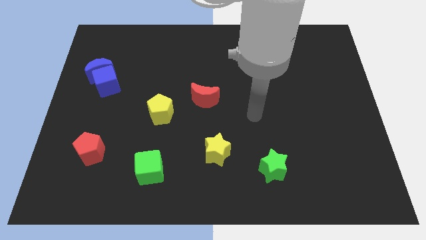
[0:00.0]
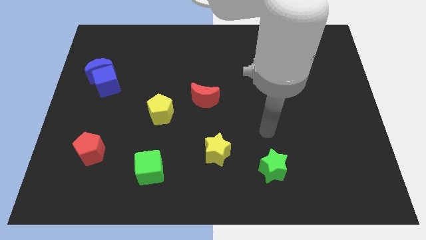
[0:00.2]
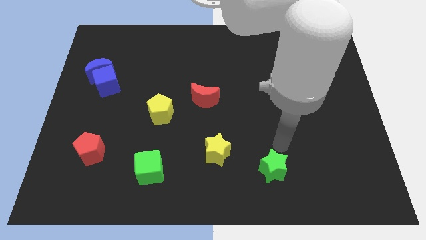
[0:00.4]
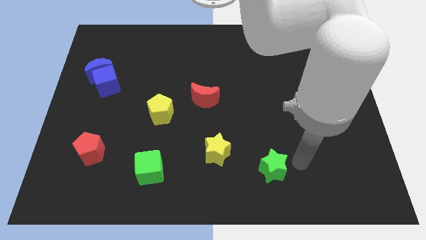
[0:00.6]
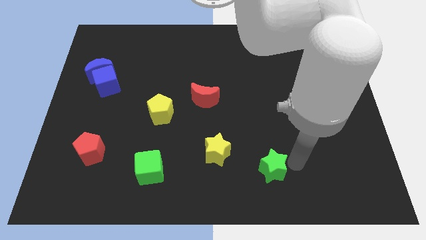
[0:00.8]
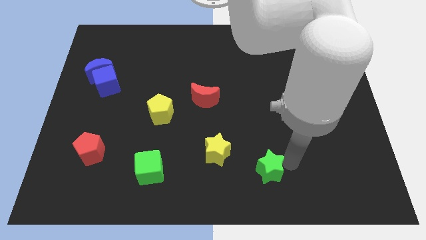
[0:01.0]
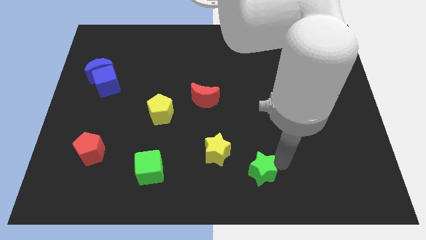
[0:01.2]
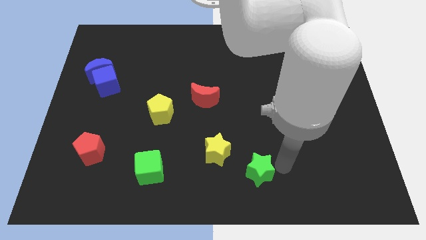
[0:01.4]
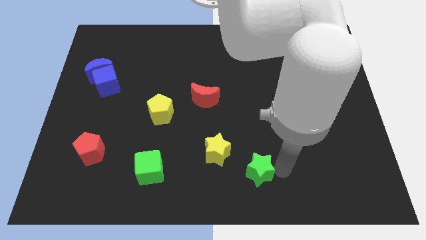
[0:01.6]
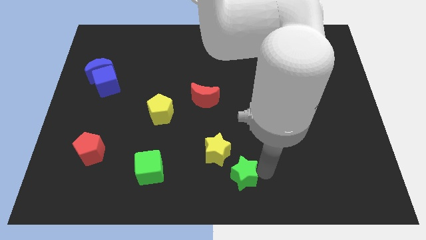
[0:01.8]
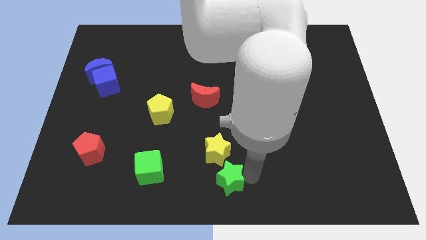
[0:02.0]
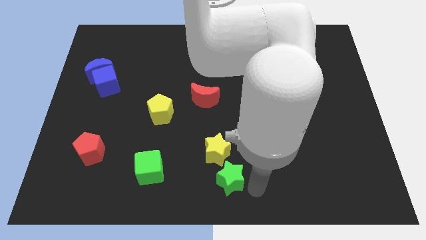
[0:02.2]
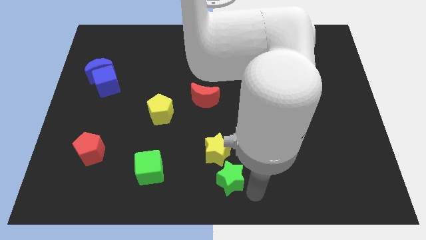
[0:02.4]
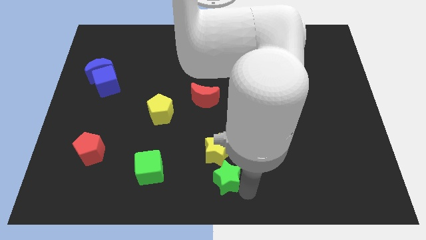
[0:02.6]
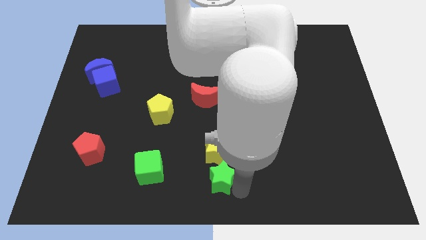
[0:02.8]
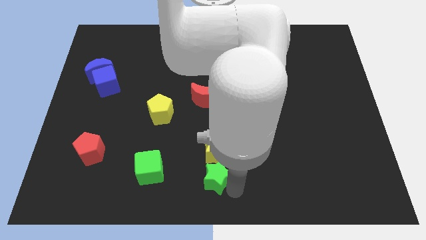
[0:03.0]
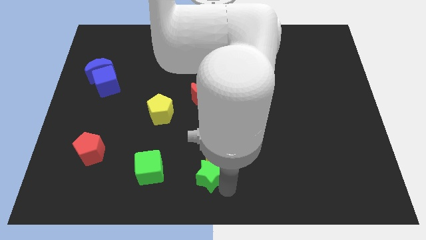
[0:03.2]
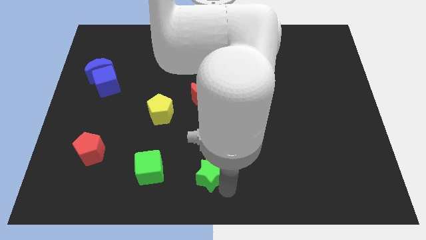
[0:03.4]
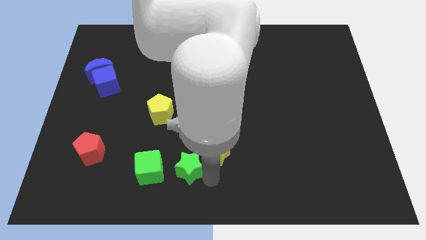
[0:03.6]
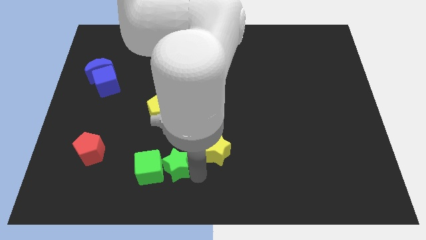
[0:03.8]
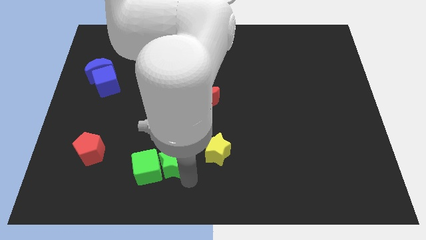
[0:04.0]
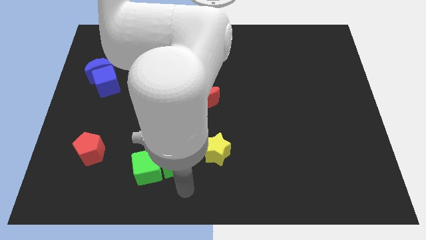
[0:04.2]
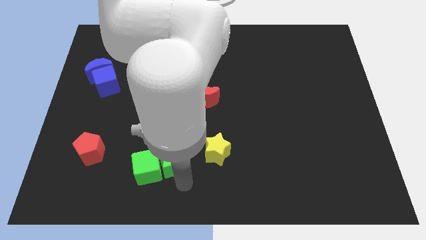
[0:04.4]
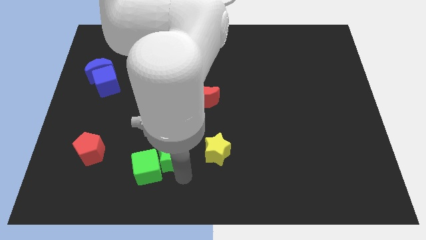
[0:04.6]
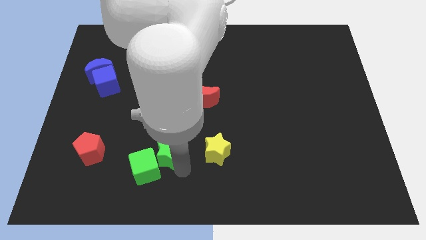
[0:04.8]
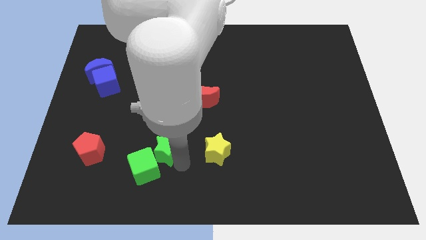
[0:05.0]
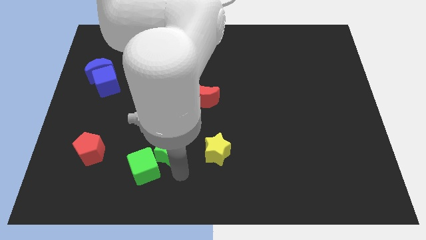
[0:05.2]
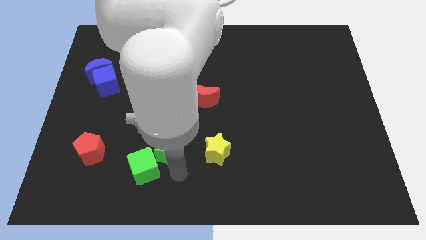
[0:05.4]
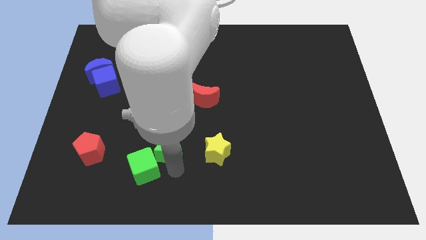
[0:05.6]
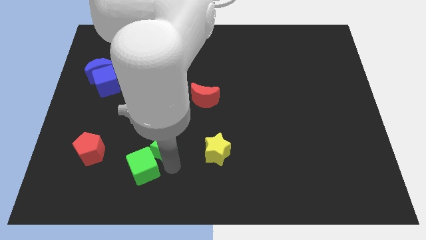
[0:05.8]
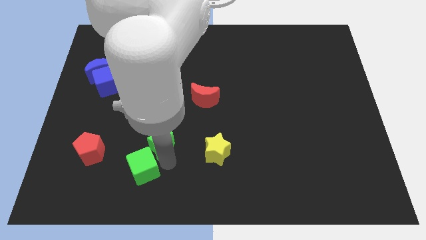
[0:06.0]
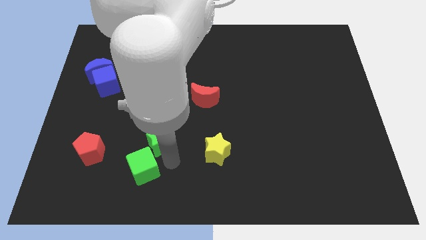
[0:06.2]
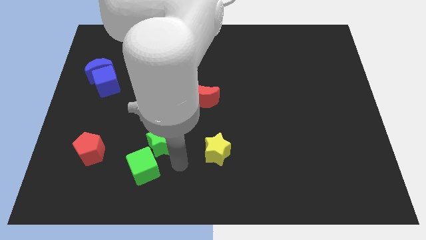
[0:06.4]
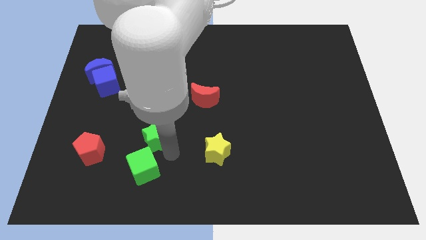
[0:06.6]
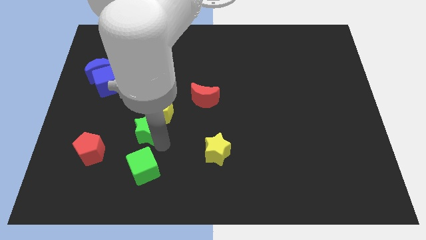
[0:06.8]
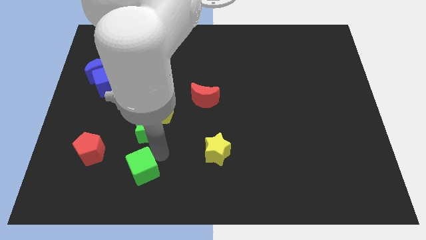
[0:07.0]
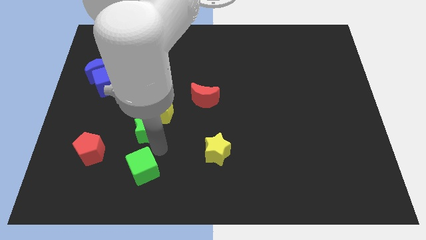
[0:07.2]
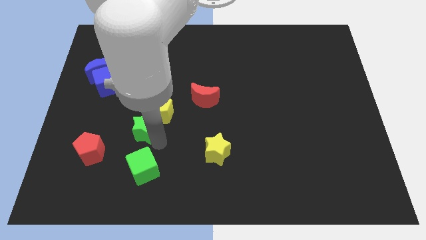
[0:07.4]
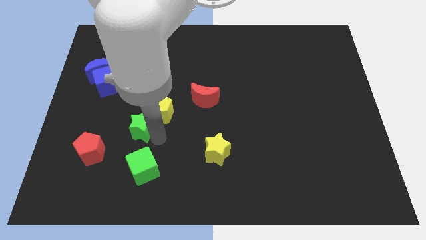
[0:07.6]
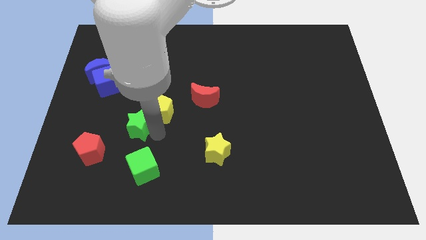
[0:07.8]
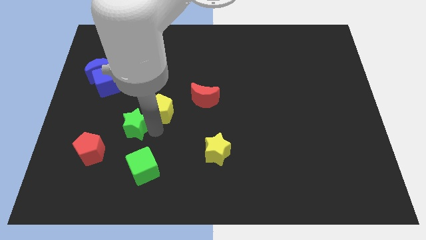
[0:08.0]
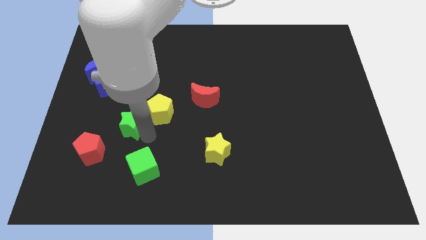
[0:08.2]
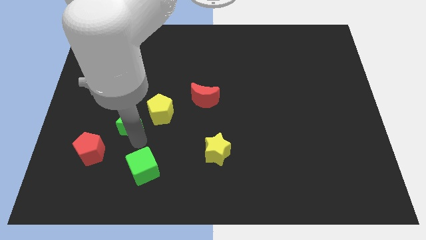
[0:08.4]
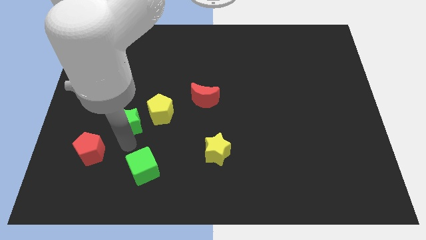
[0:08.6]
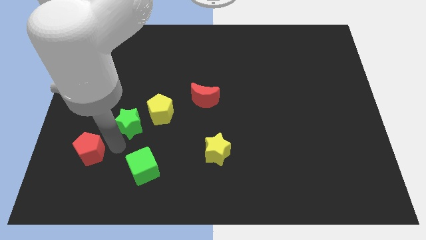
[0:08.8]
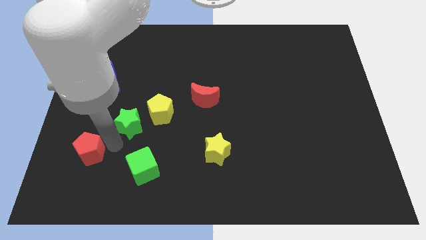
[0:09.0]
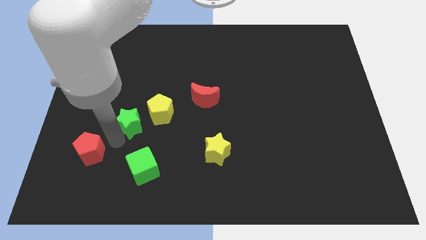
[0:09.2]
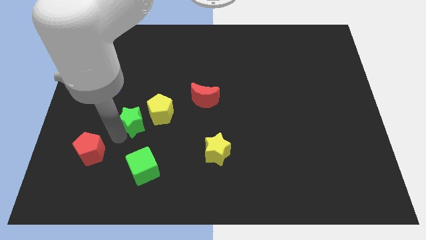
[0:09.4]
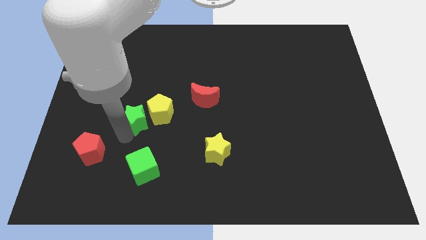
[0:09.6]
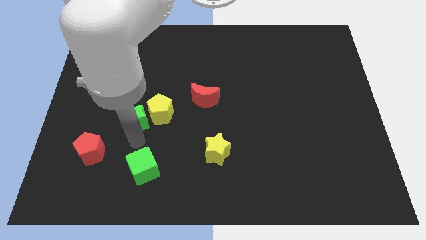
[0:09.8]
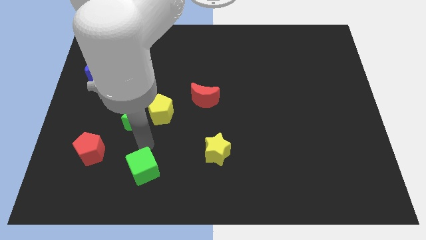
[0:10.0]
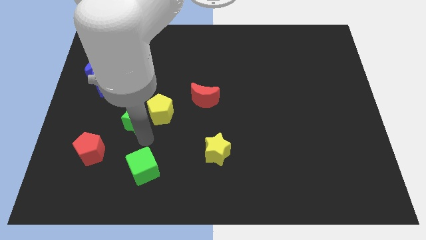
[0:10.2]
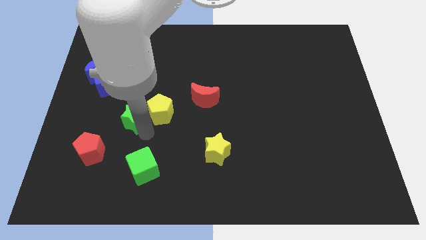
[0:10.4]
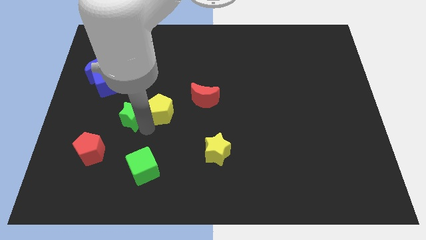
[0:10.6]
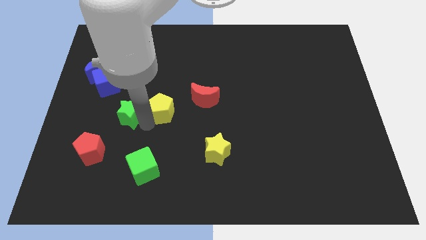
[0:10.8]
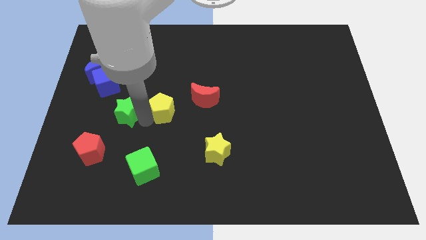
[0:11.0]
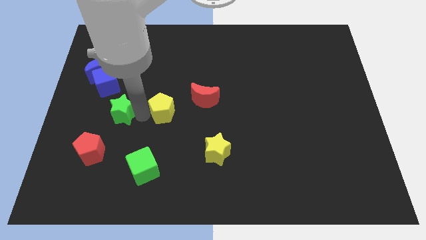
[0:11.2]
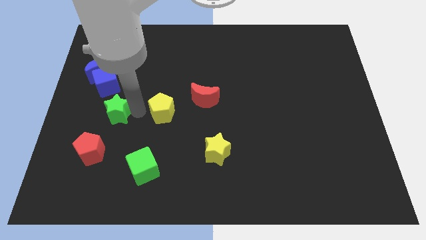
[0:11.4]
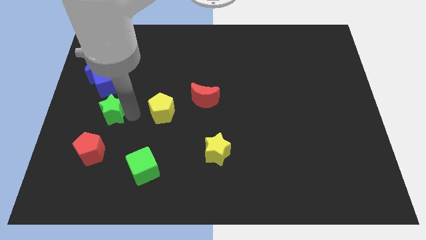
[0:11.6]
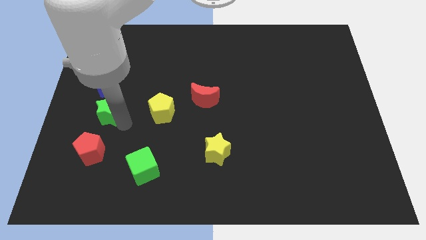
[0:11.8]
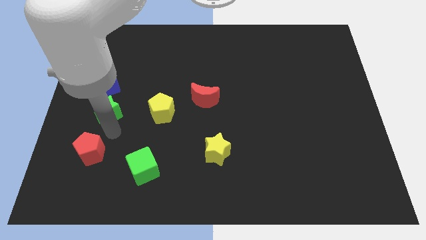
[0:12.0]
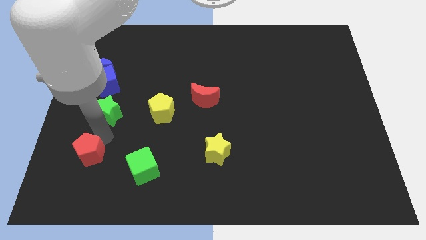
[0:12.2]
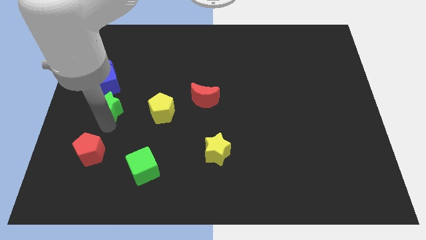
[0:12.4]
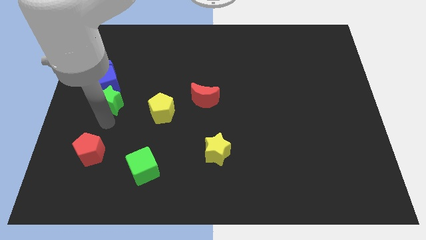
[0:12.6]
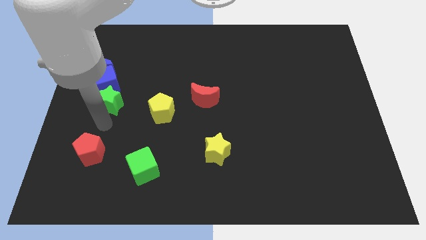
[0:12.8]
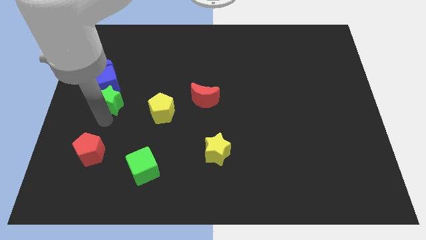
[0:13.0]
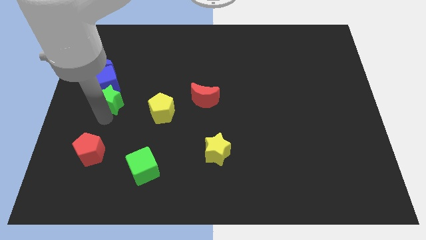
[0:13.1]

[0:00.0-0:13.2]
push the green star towards the blue cube

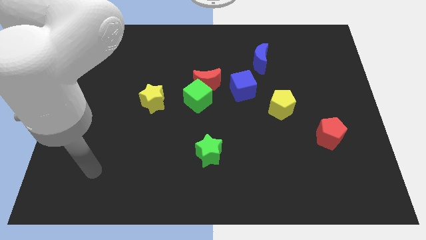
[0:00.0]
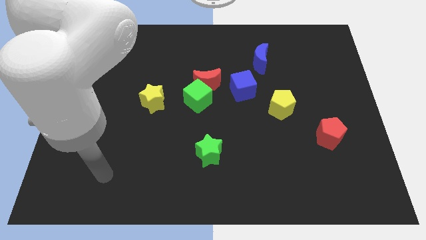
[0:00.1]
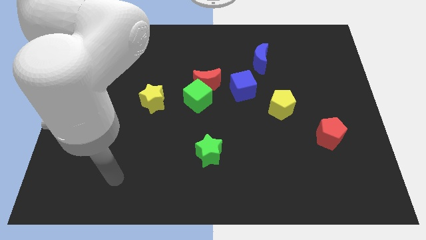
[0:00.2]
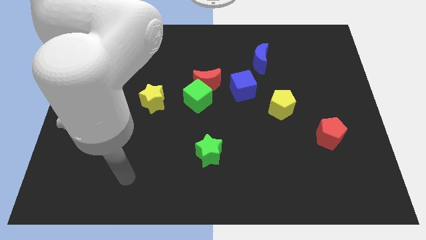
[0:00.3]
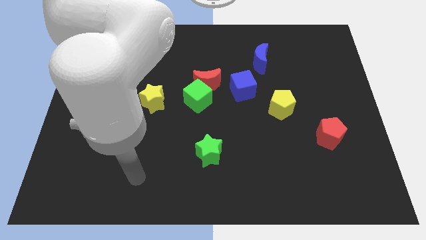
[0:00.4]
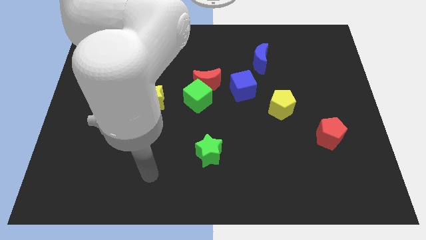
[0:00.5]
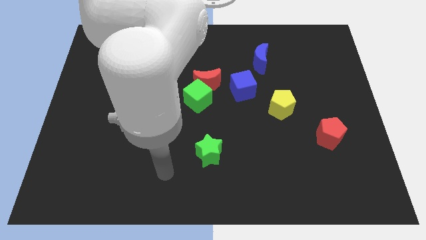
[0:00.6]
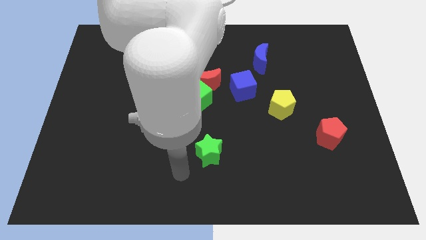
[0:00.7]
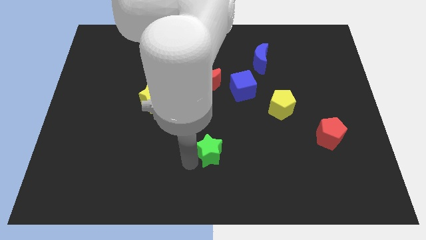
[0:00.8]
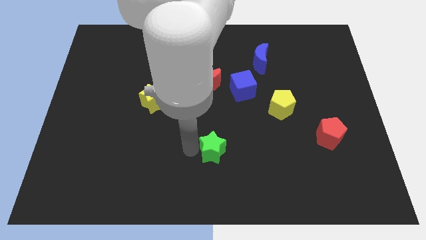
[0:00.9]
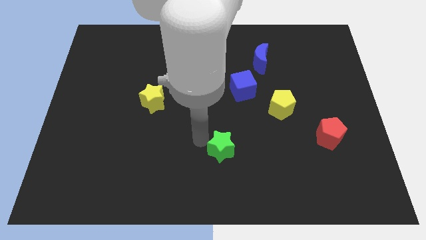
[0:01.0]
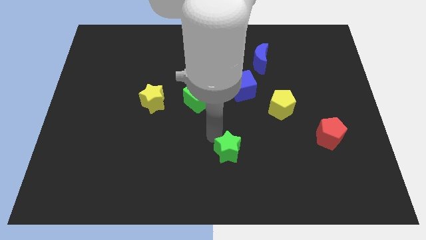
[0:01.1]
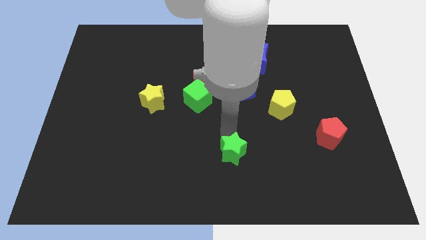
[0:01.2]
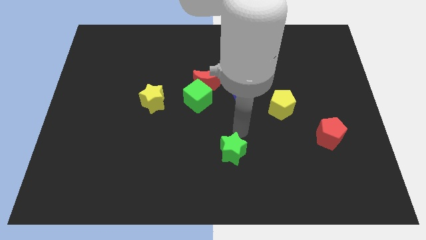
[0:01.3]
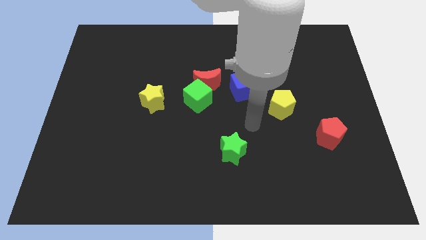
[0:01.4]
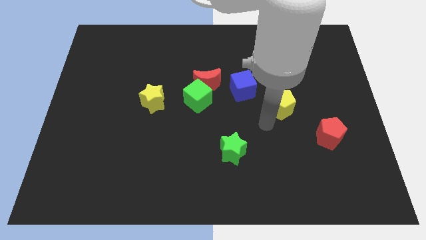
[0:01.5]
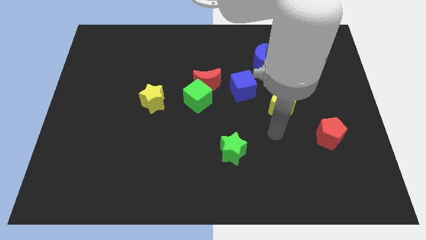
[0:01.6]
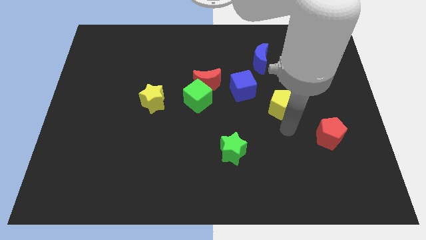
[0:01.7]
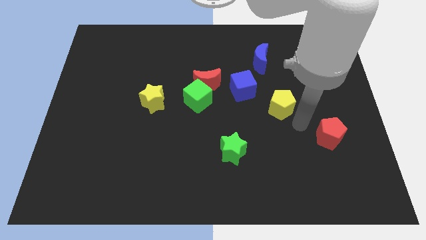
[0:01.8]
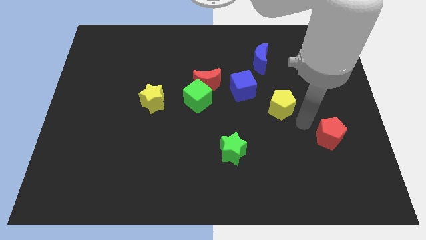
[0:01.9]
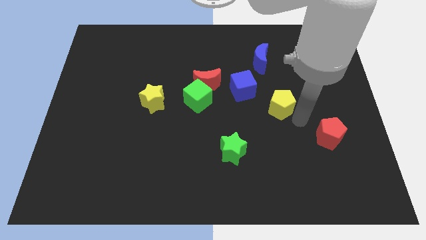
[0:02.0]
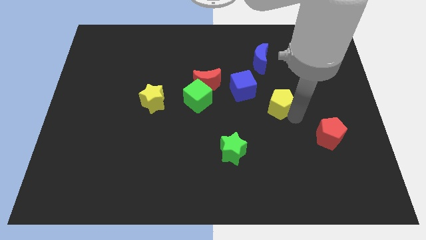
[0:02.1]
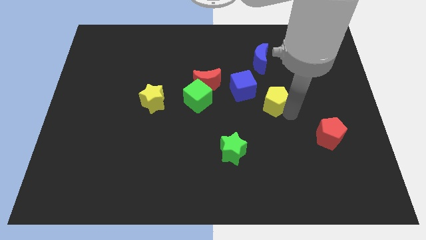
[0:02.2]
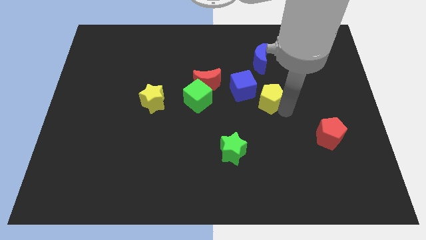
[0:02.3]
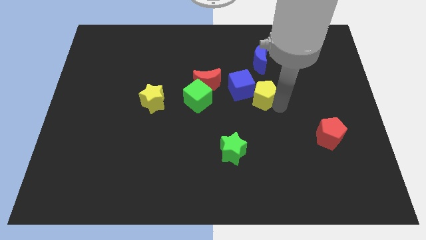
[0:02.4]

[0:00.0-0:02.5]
move the yellow pentagon next to the blue cube
